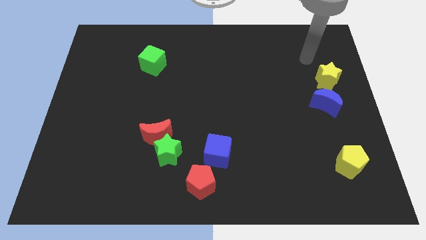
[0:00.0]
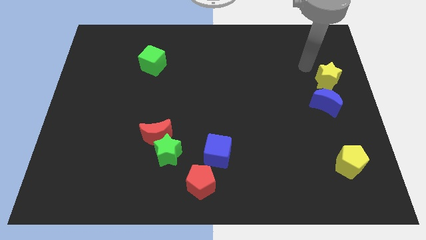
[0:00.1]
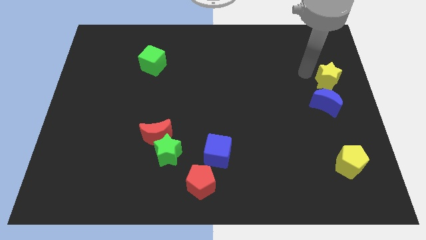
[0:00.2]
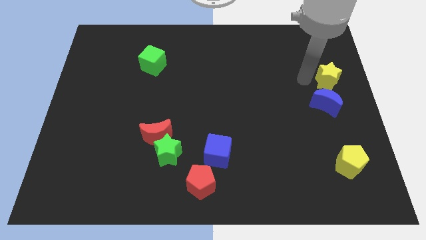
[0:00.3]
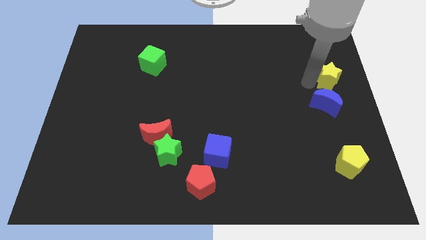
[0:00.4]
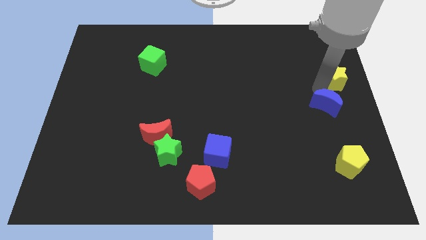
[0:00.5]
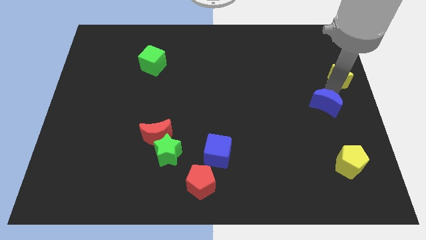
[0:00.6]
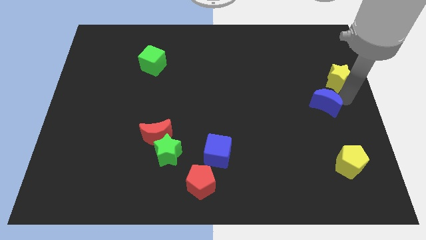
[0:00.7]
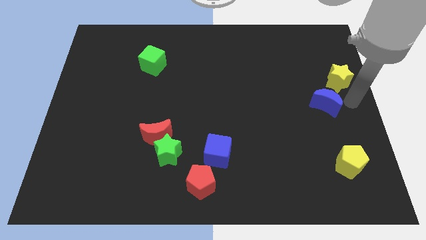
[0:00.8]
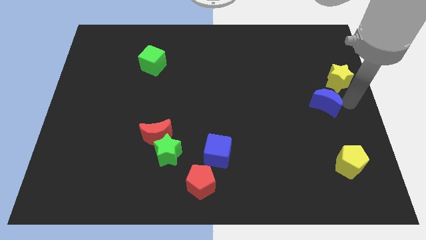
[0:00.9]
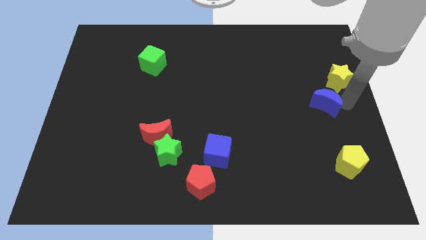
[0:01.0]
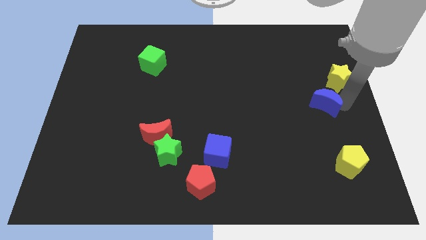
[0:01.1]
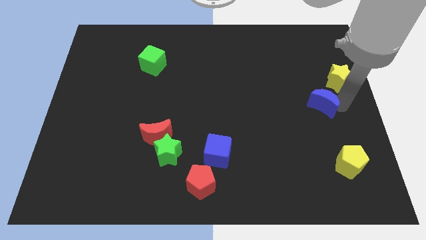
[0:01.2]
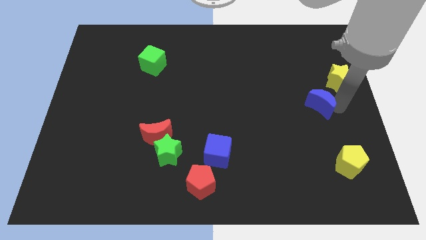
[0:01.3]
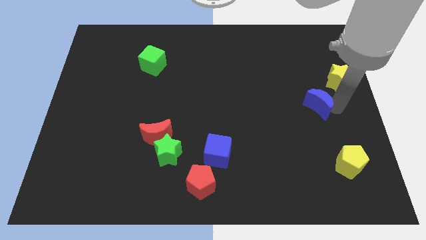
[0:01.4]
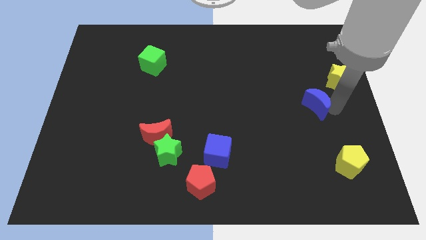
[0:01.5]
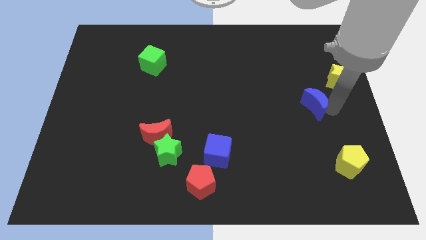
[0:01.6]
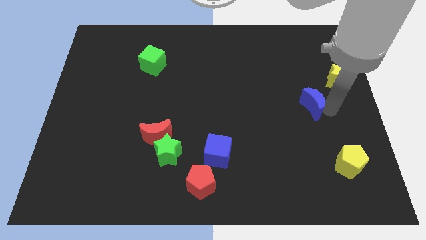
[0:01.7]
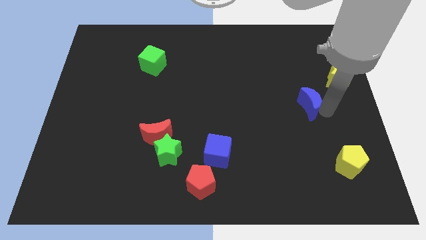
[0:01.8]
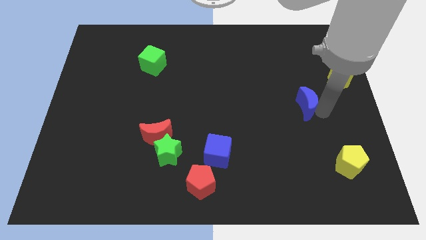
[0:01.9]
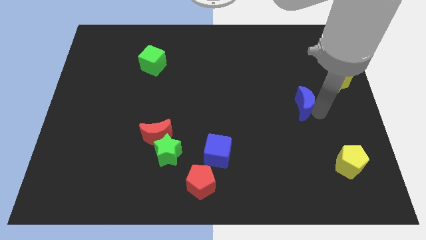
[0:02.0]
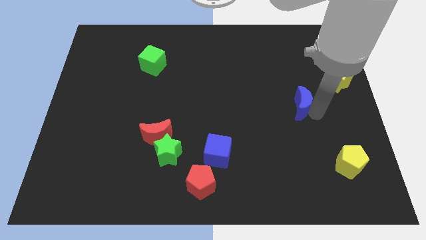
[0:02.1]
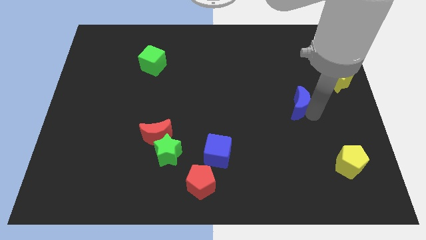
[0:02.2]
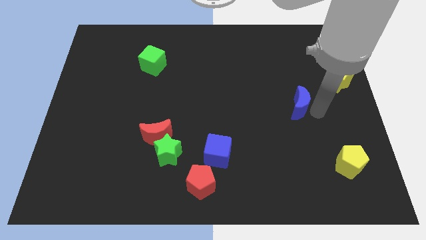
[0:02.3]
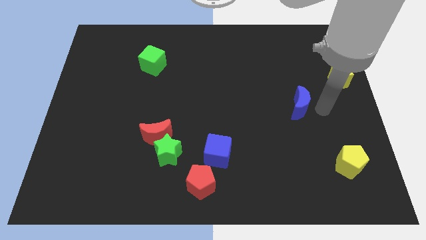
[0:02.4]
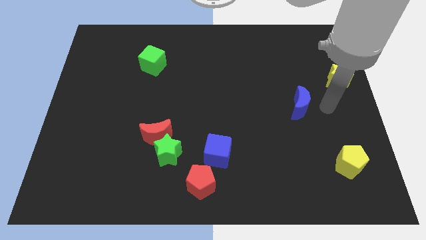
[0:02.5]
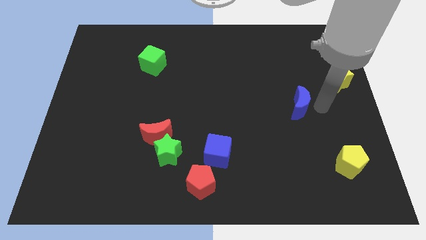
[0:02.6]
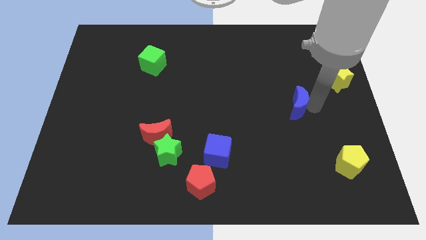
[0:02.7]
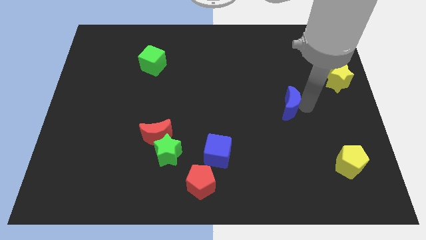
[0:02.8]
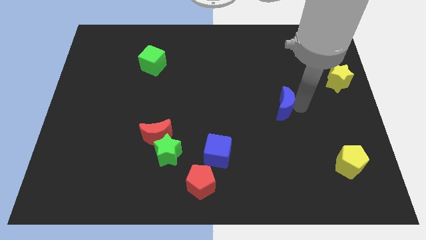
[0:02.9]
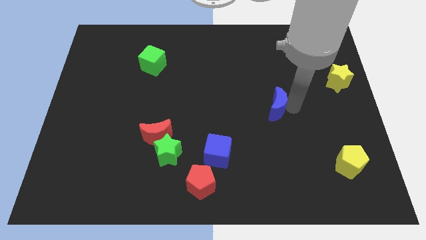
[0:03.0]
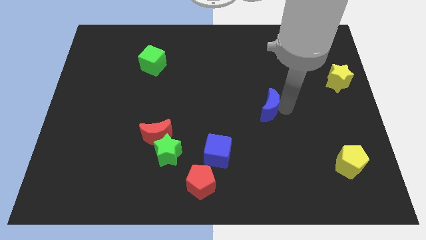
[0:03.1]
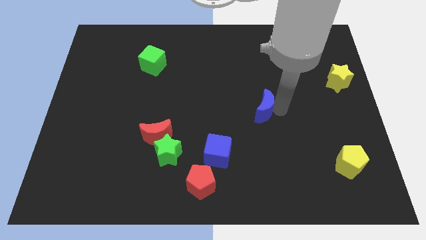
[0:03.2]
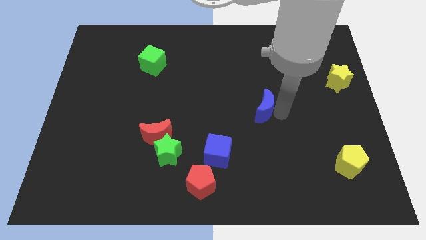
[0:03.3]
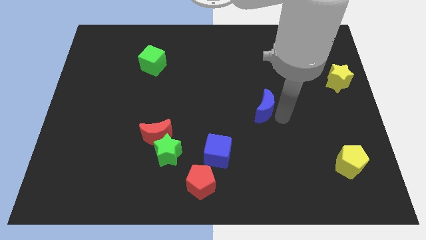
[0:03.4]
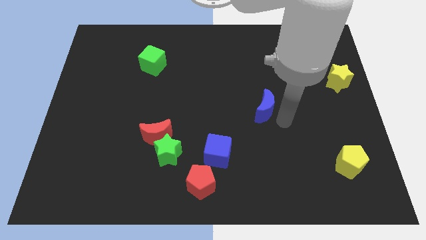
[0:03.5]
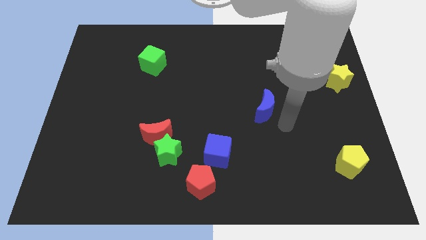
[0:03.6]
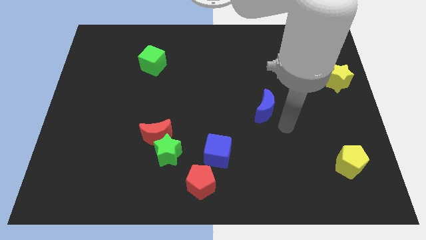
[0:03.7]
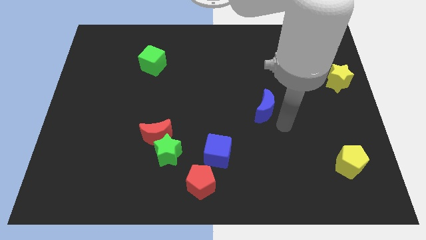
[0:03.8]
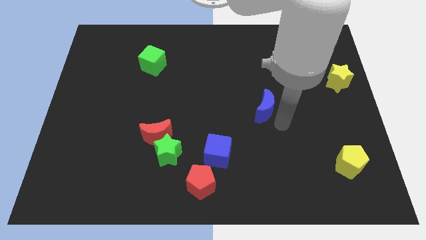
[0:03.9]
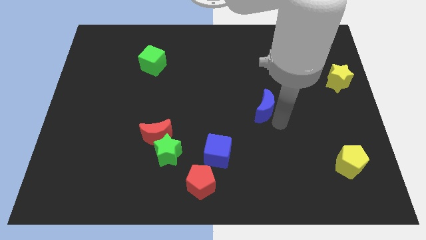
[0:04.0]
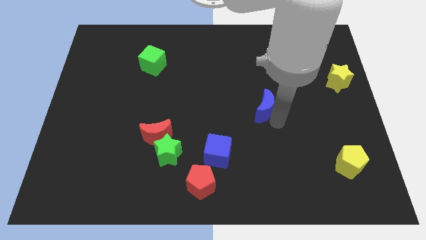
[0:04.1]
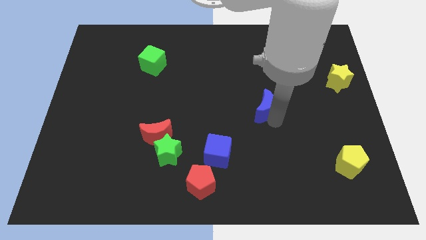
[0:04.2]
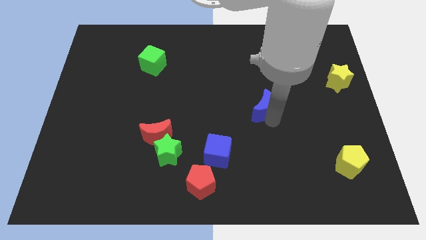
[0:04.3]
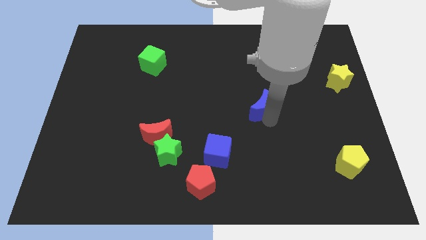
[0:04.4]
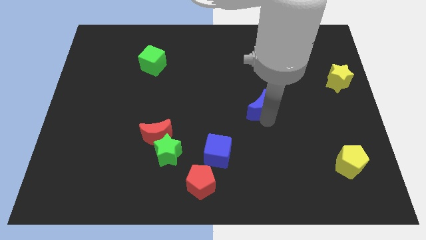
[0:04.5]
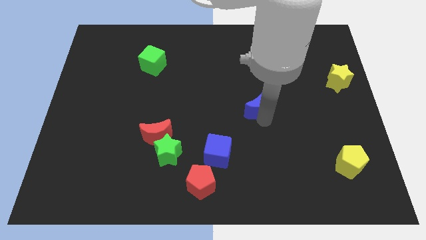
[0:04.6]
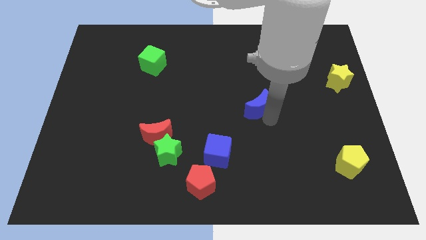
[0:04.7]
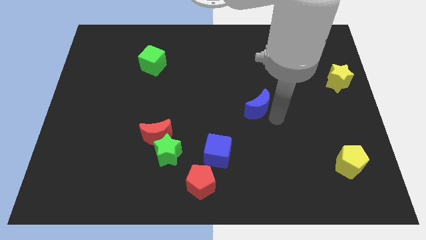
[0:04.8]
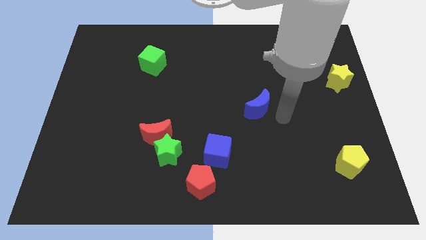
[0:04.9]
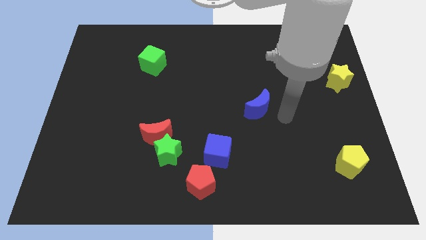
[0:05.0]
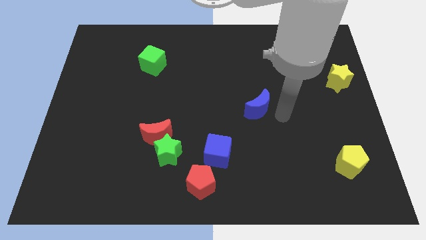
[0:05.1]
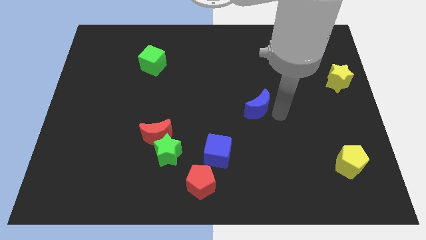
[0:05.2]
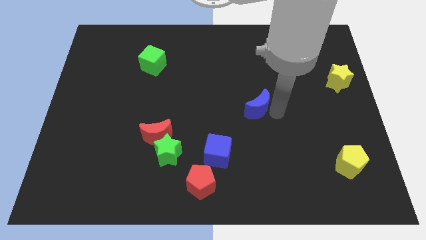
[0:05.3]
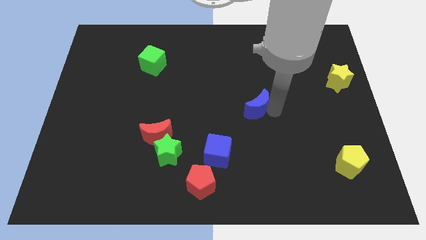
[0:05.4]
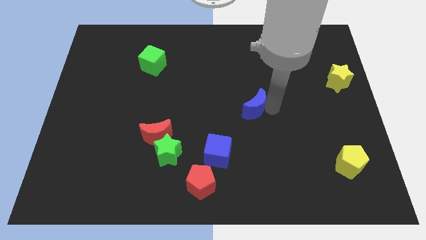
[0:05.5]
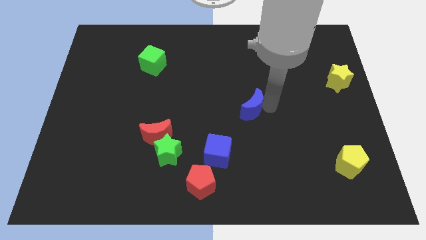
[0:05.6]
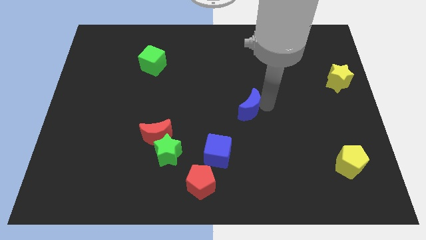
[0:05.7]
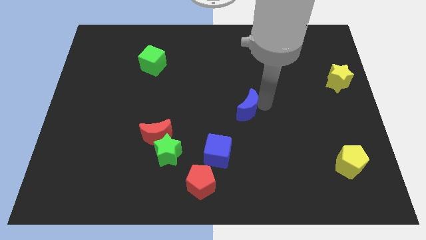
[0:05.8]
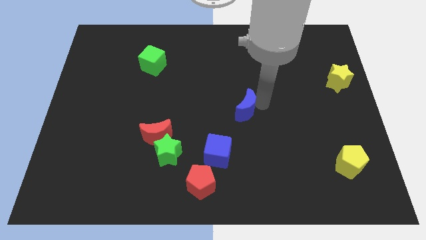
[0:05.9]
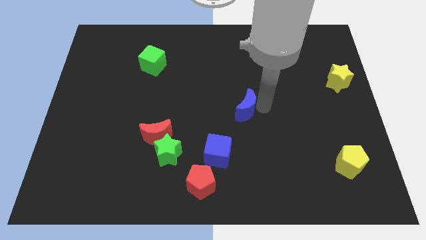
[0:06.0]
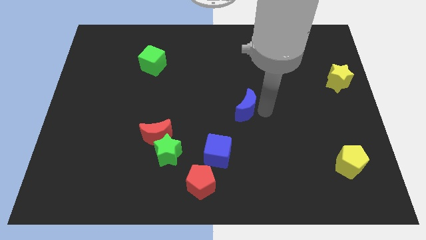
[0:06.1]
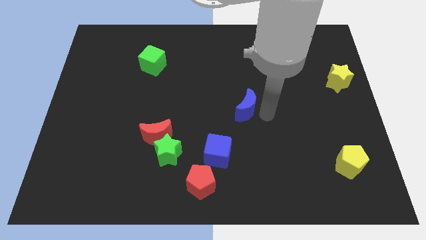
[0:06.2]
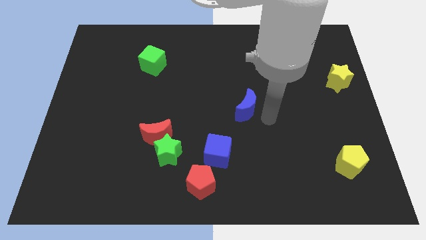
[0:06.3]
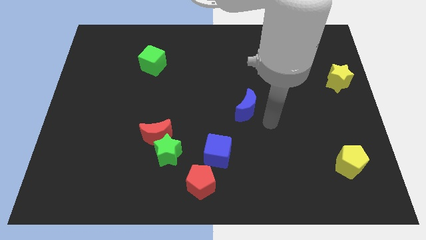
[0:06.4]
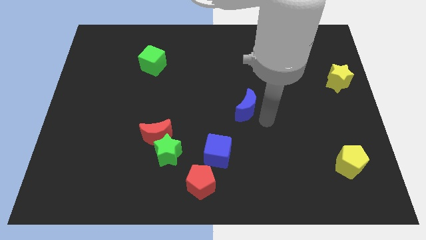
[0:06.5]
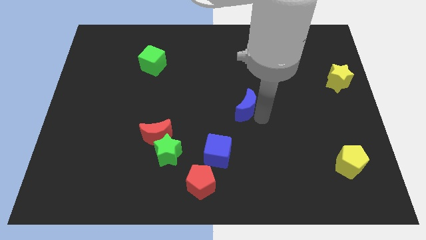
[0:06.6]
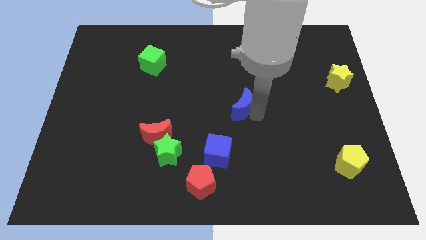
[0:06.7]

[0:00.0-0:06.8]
move the blue moon to the left

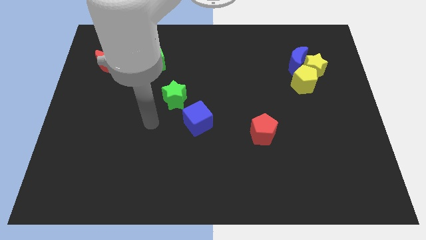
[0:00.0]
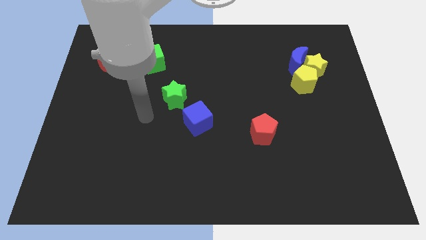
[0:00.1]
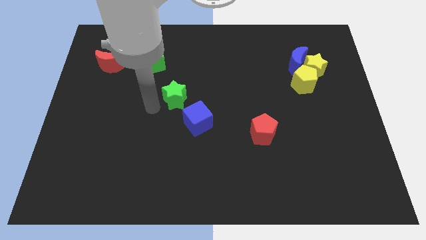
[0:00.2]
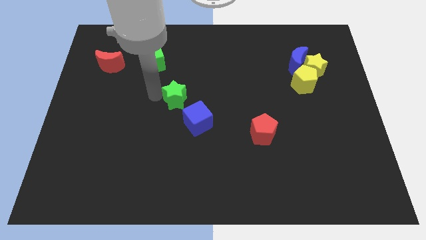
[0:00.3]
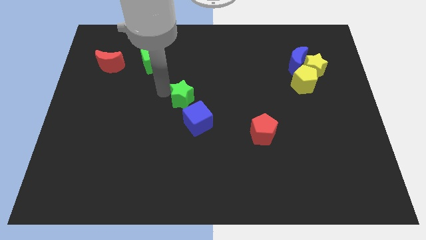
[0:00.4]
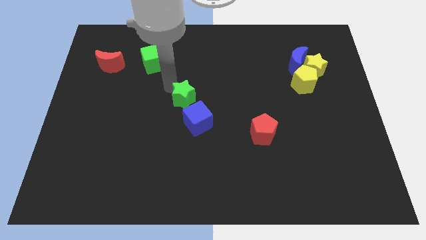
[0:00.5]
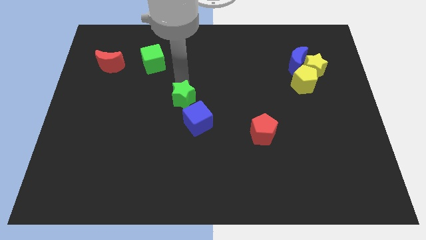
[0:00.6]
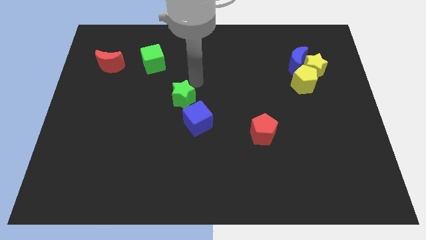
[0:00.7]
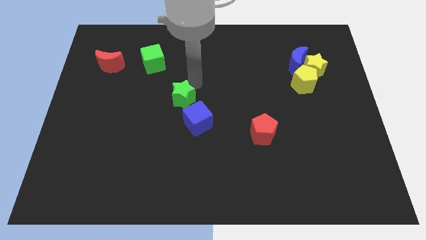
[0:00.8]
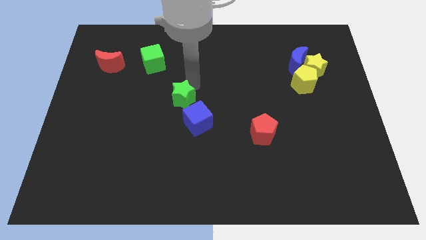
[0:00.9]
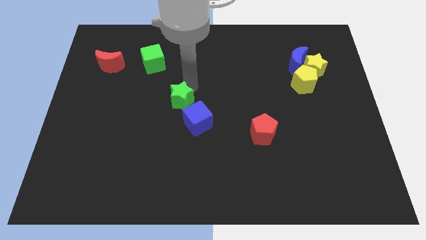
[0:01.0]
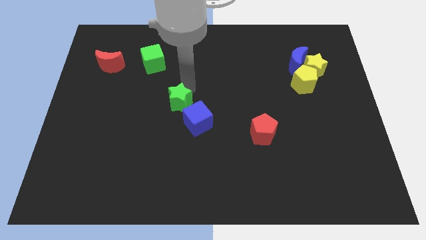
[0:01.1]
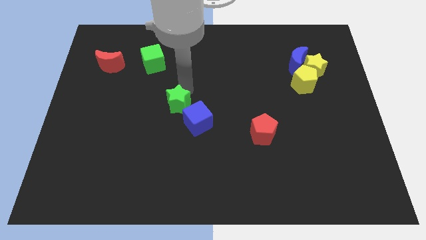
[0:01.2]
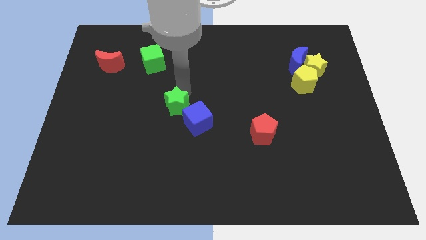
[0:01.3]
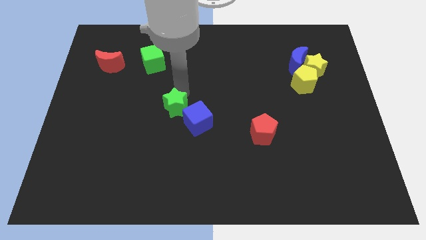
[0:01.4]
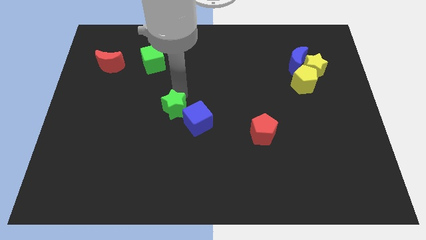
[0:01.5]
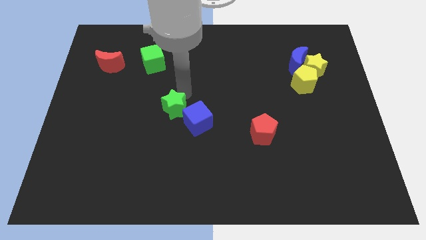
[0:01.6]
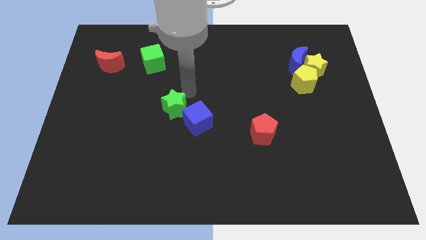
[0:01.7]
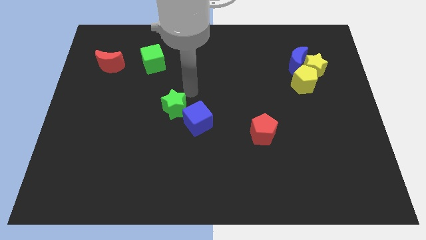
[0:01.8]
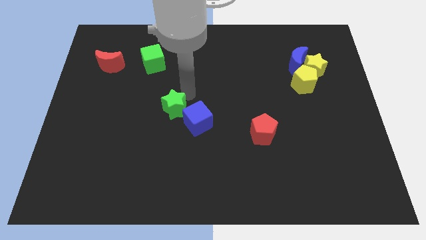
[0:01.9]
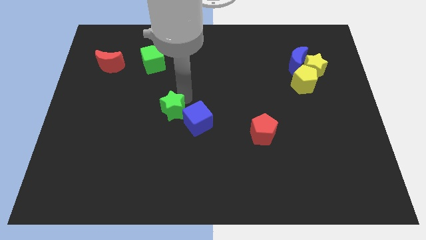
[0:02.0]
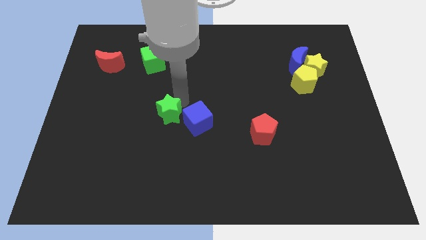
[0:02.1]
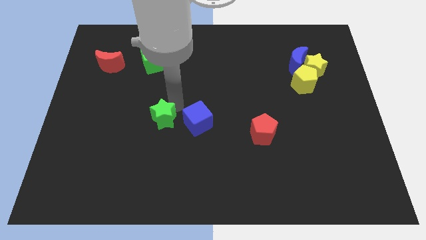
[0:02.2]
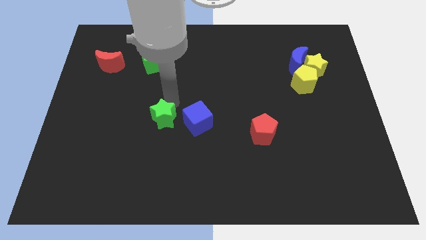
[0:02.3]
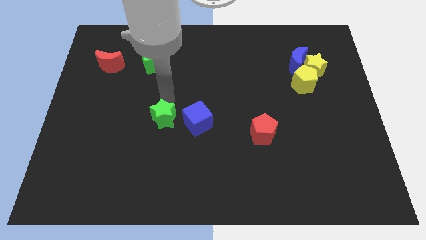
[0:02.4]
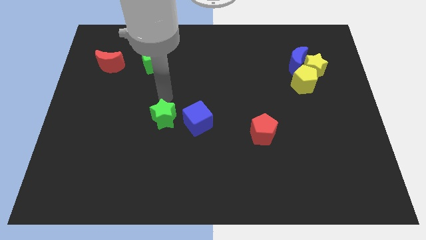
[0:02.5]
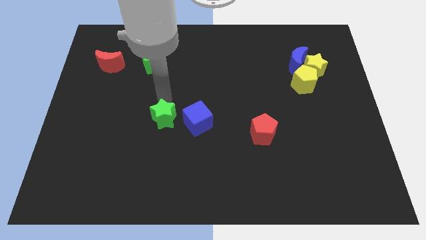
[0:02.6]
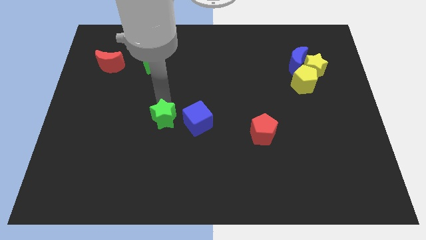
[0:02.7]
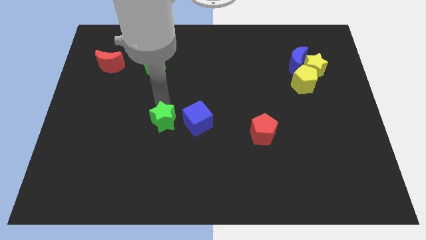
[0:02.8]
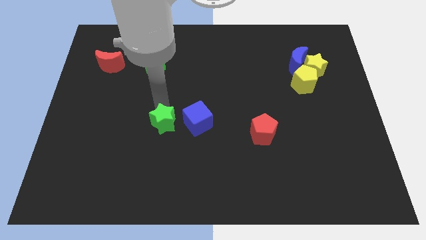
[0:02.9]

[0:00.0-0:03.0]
slightly slide the green star down
